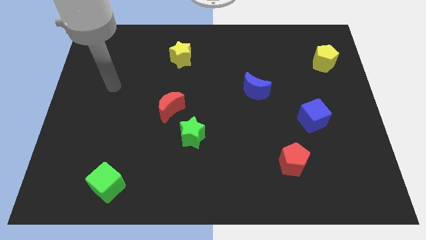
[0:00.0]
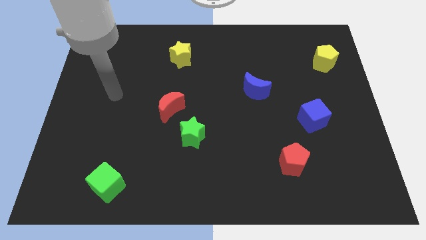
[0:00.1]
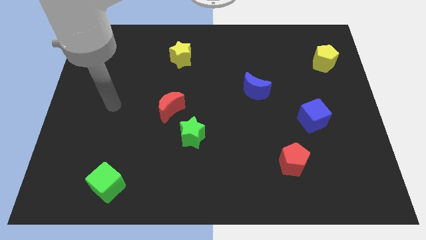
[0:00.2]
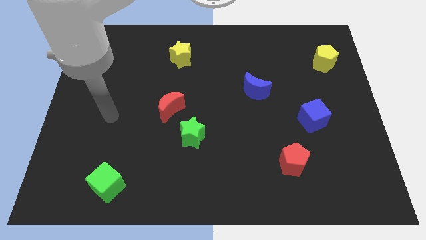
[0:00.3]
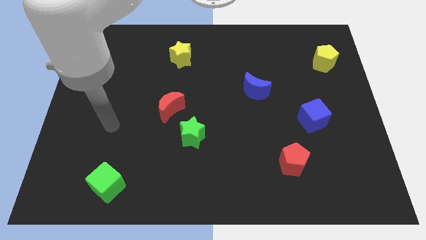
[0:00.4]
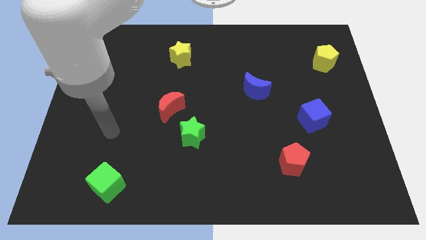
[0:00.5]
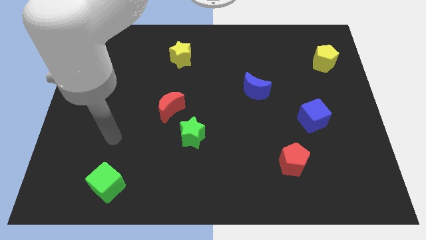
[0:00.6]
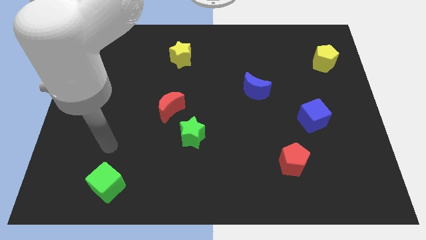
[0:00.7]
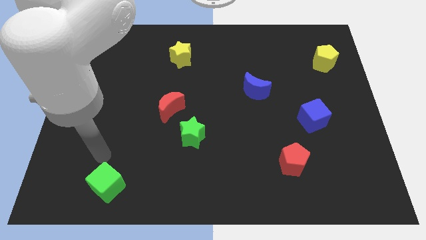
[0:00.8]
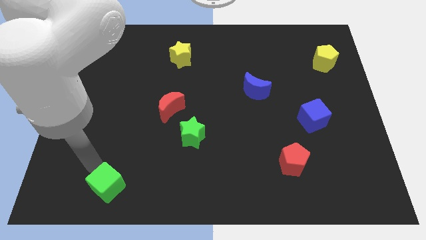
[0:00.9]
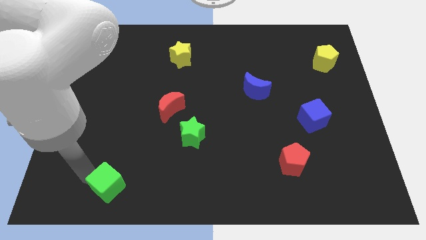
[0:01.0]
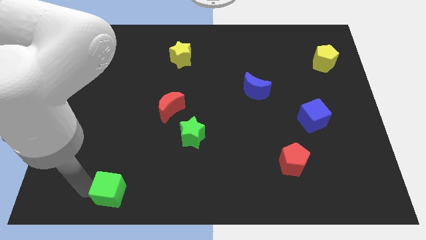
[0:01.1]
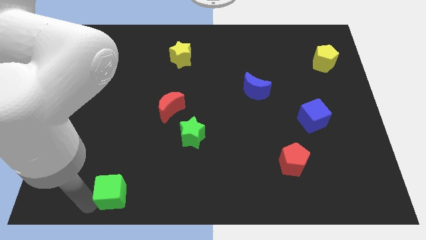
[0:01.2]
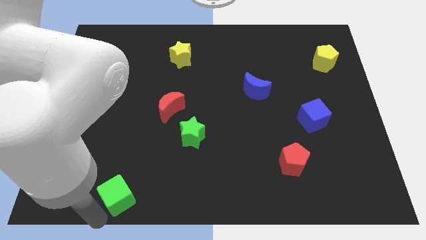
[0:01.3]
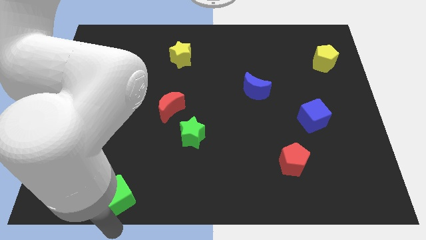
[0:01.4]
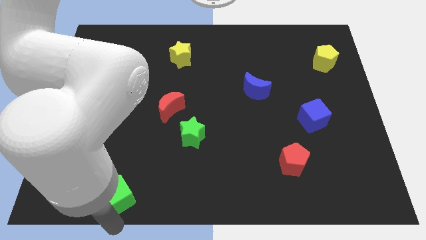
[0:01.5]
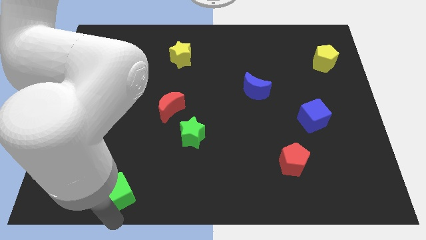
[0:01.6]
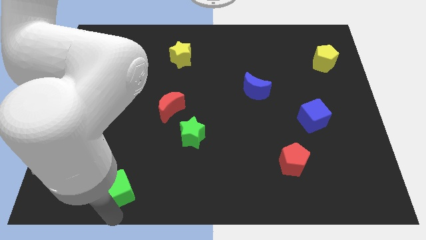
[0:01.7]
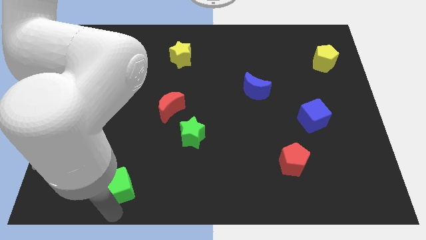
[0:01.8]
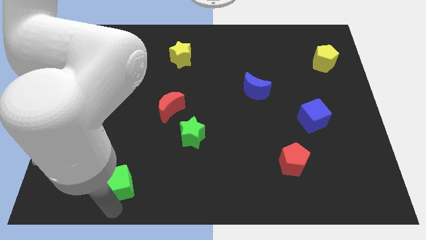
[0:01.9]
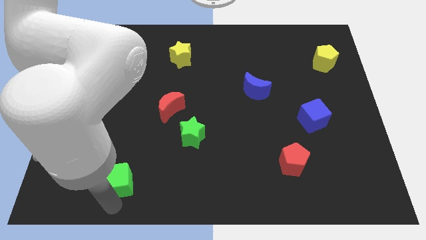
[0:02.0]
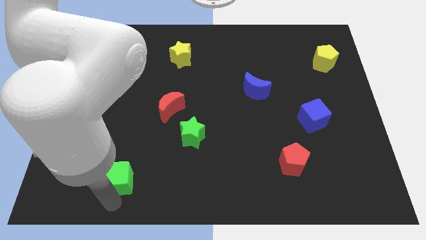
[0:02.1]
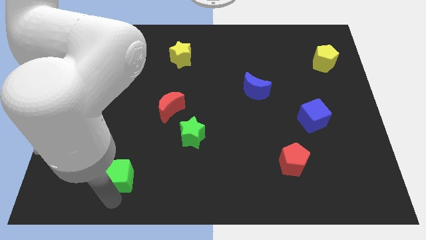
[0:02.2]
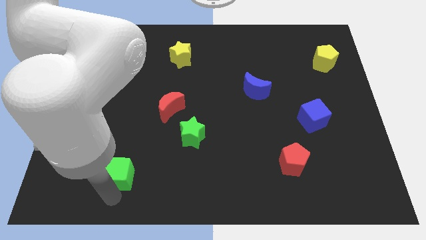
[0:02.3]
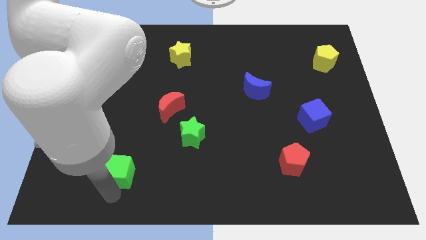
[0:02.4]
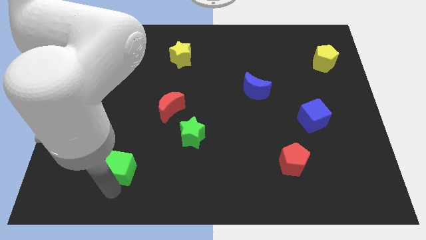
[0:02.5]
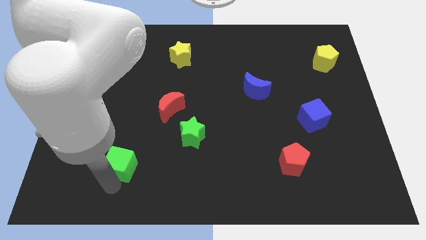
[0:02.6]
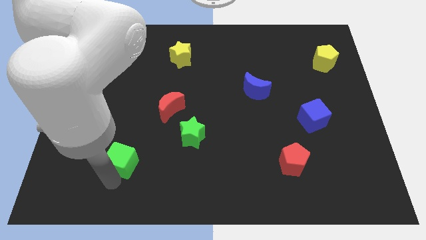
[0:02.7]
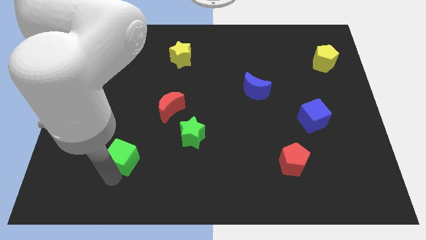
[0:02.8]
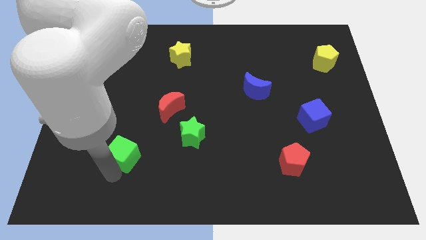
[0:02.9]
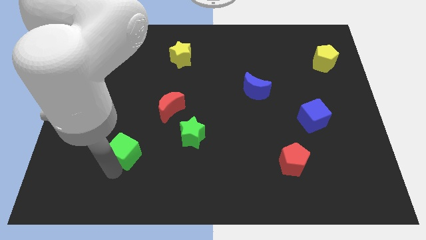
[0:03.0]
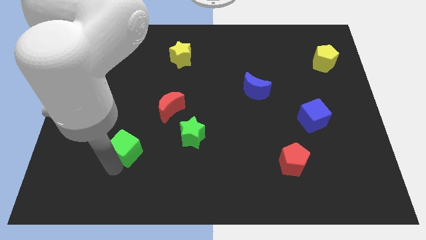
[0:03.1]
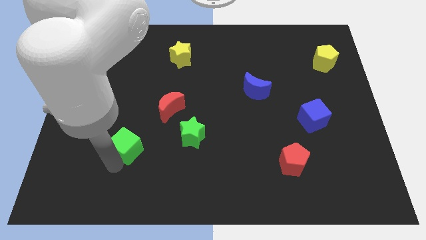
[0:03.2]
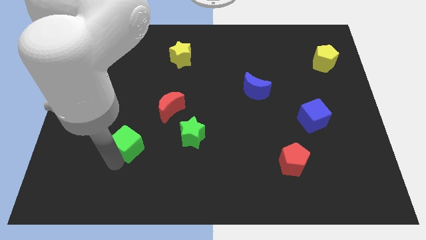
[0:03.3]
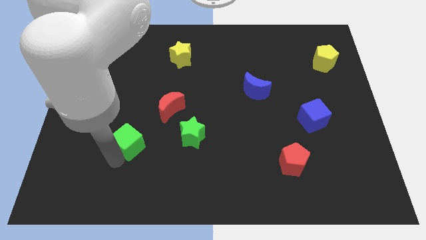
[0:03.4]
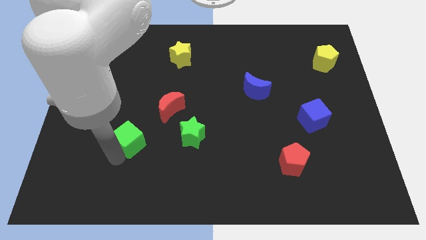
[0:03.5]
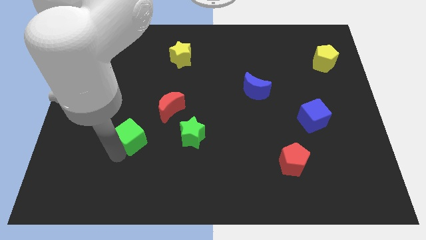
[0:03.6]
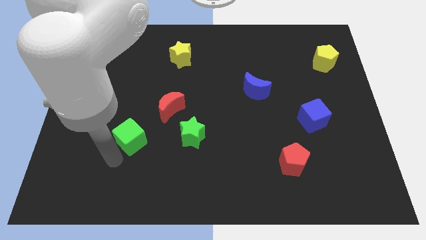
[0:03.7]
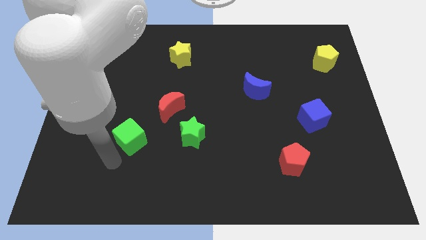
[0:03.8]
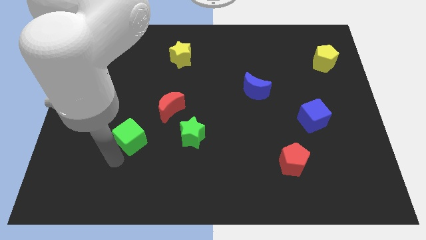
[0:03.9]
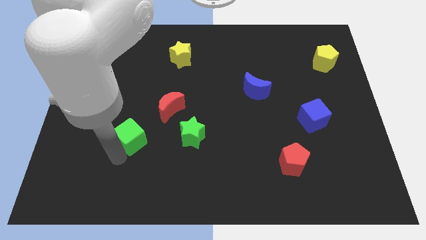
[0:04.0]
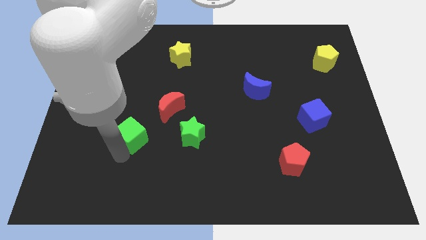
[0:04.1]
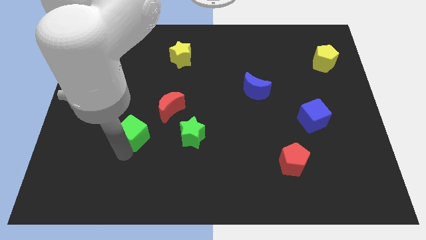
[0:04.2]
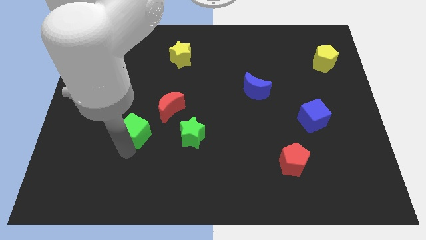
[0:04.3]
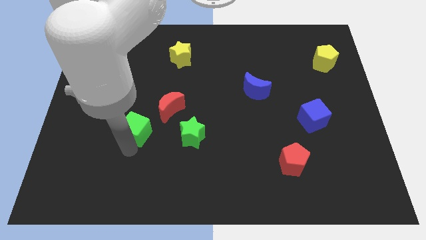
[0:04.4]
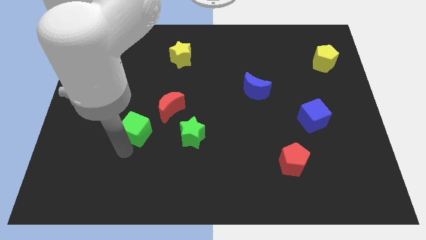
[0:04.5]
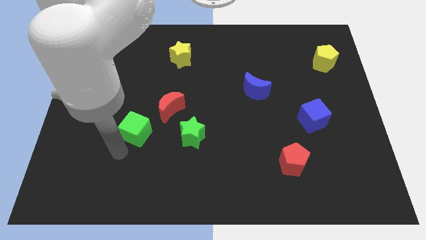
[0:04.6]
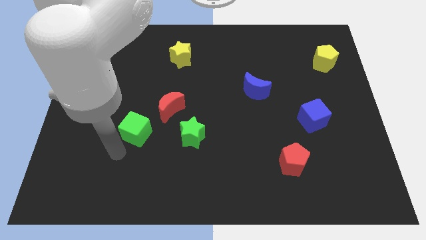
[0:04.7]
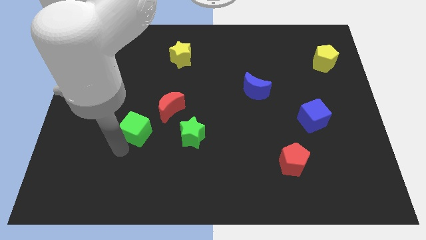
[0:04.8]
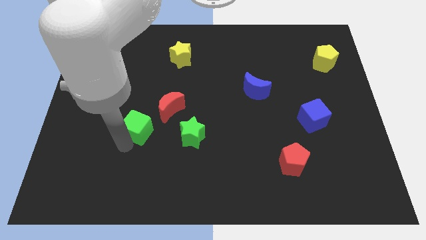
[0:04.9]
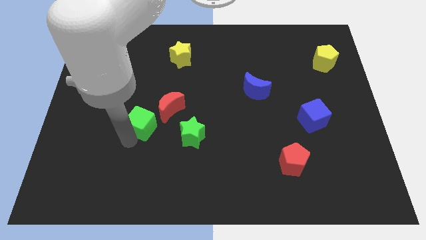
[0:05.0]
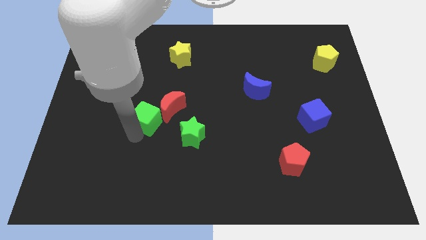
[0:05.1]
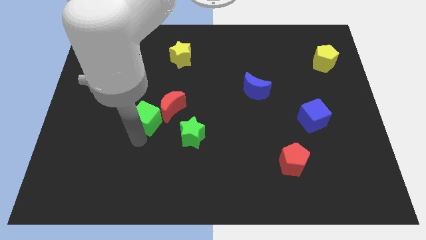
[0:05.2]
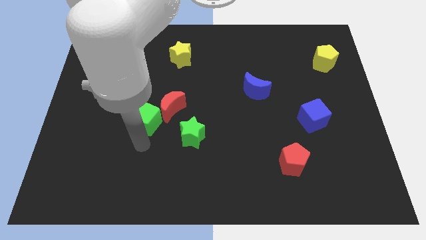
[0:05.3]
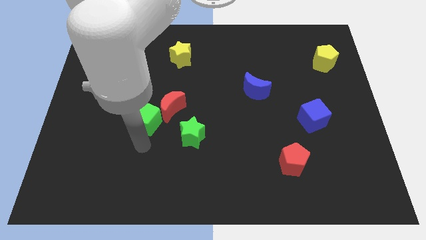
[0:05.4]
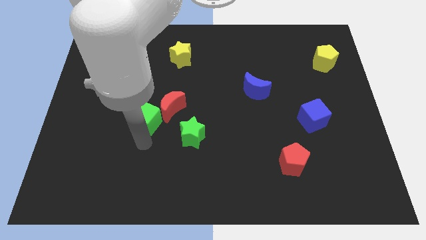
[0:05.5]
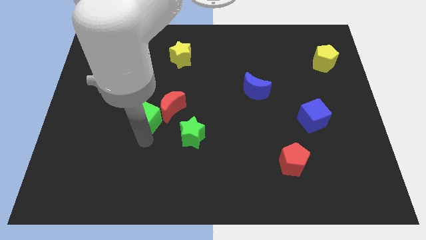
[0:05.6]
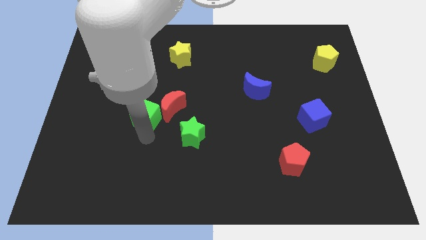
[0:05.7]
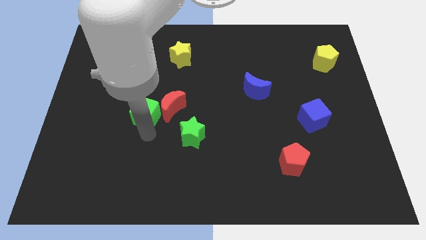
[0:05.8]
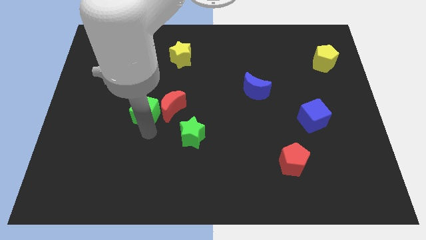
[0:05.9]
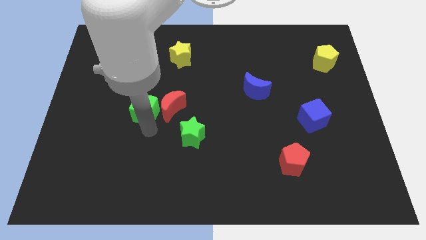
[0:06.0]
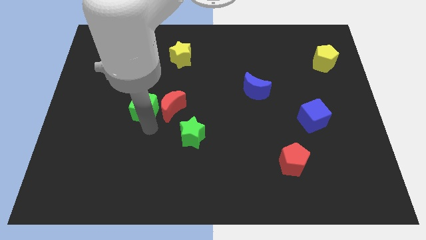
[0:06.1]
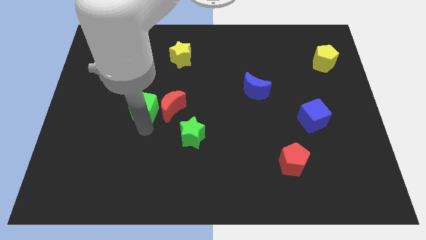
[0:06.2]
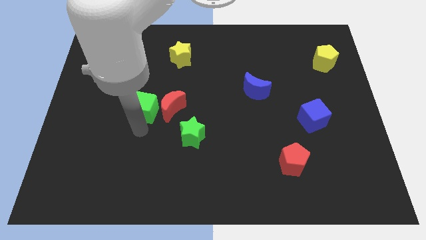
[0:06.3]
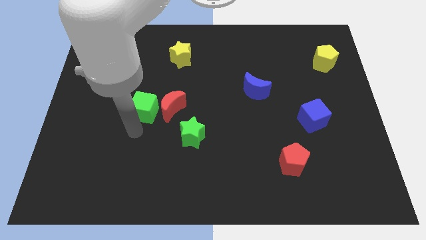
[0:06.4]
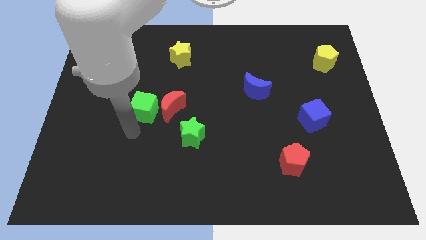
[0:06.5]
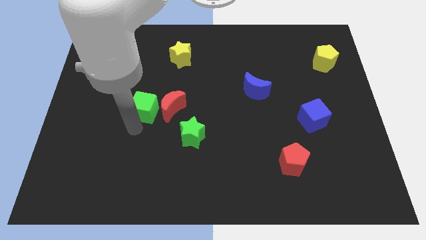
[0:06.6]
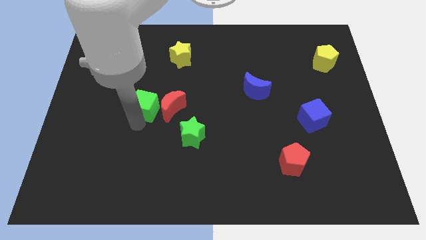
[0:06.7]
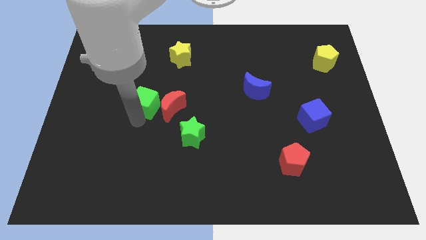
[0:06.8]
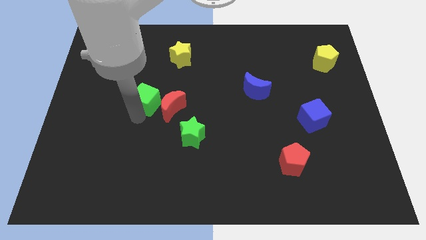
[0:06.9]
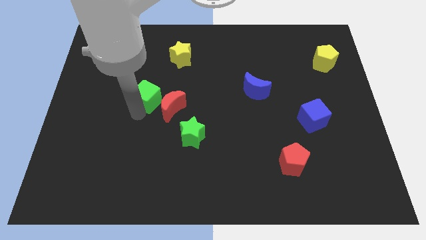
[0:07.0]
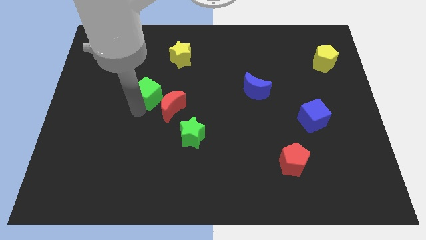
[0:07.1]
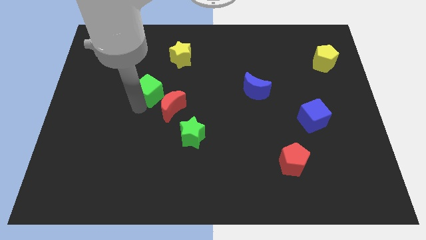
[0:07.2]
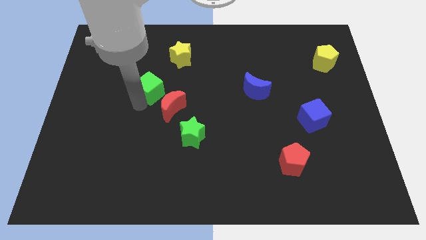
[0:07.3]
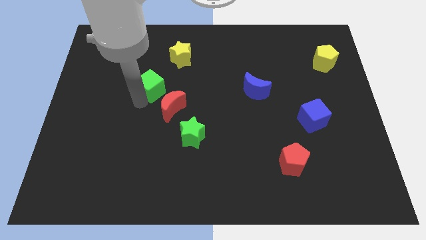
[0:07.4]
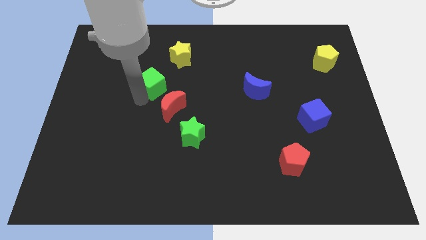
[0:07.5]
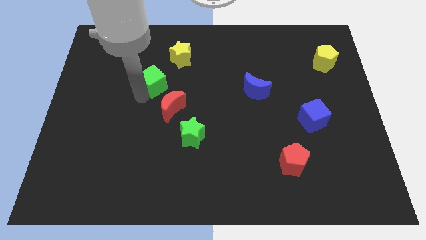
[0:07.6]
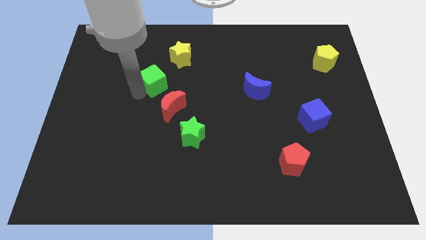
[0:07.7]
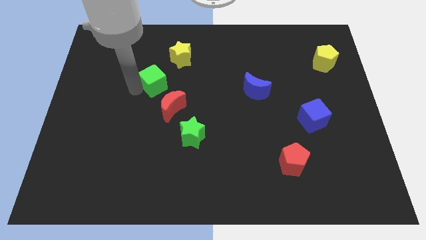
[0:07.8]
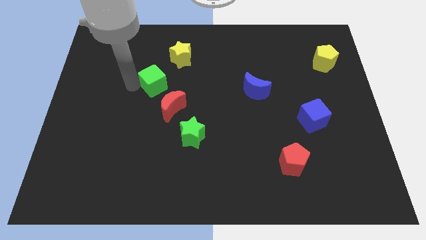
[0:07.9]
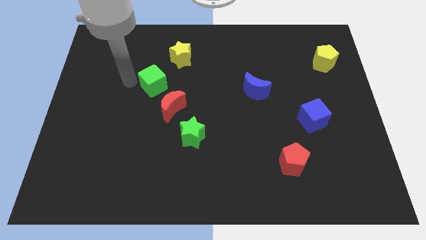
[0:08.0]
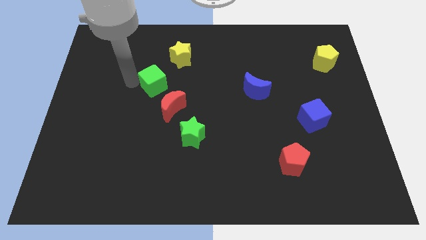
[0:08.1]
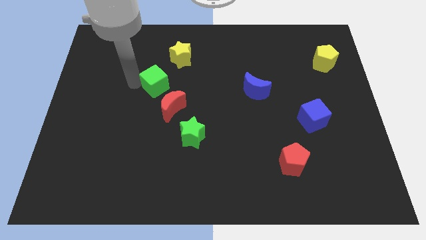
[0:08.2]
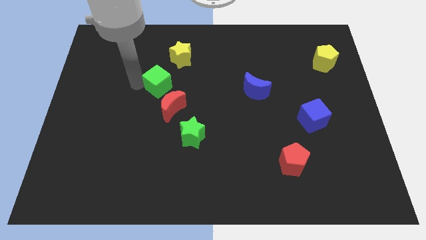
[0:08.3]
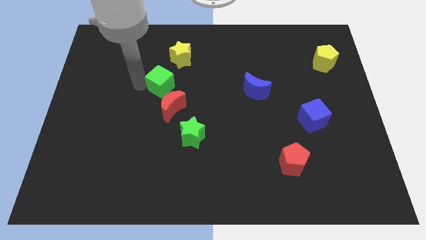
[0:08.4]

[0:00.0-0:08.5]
move the green cube to the bottom side of the yellow star
